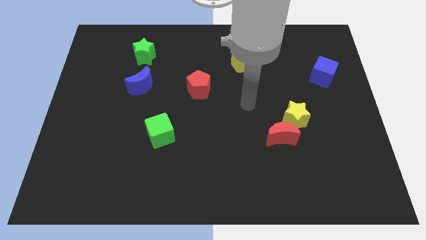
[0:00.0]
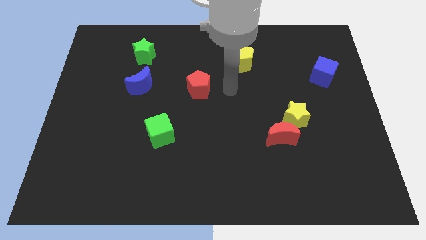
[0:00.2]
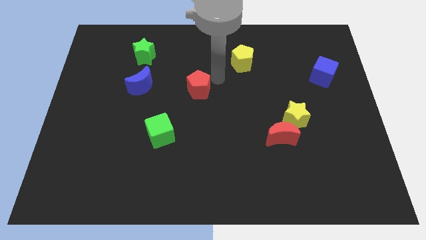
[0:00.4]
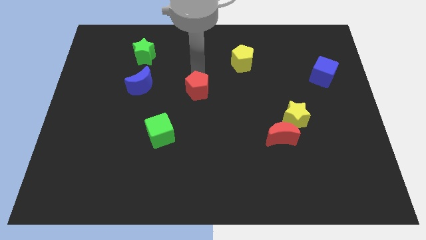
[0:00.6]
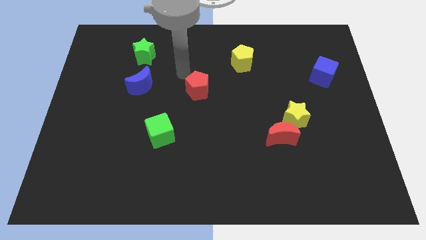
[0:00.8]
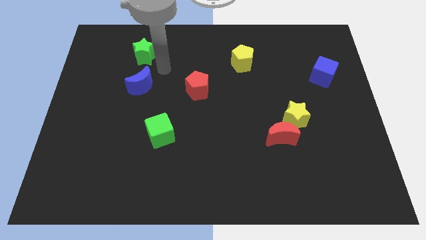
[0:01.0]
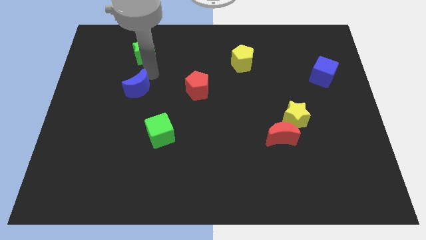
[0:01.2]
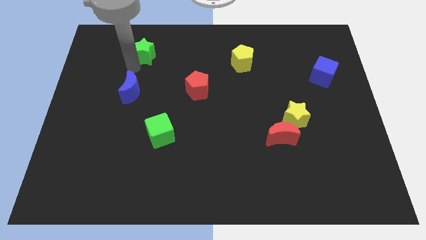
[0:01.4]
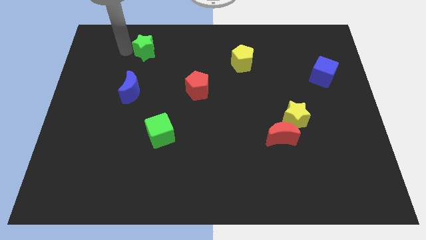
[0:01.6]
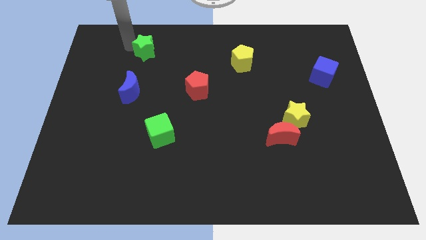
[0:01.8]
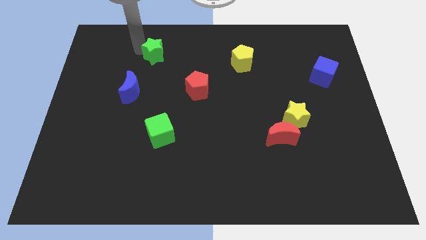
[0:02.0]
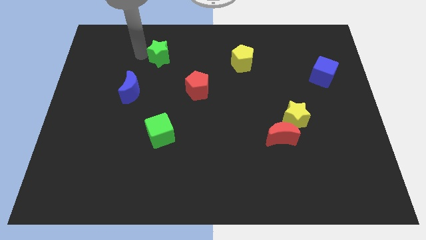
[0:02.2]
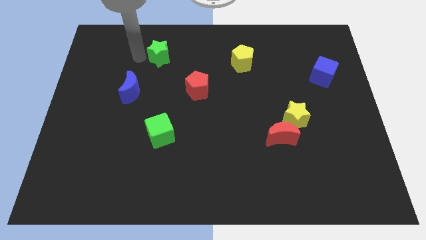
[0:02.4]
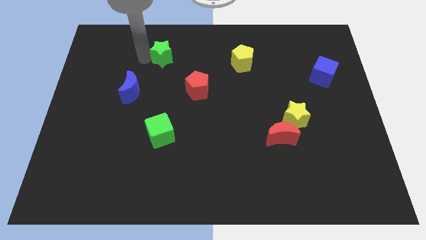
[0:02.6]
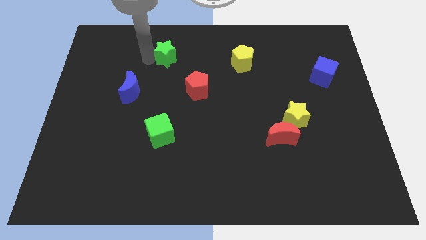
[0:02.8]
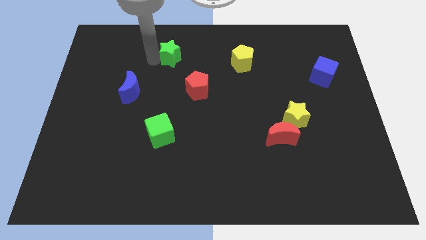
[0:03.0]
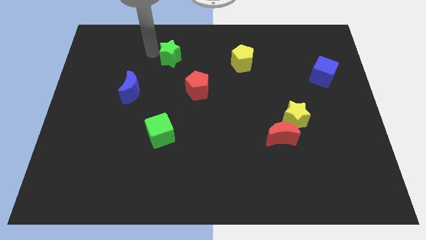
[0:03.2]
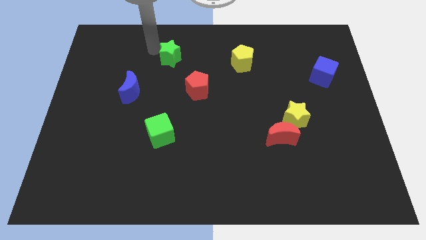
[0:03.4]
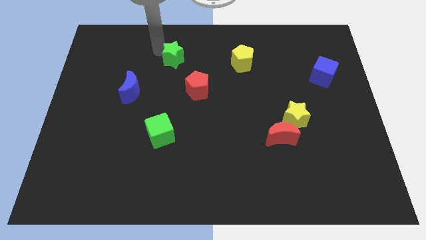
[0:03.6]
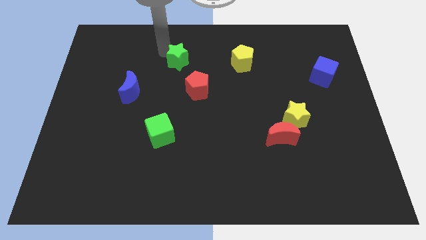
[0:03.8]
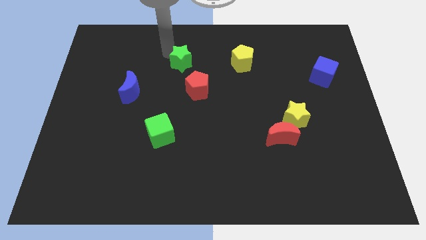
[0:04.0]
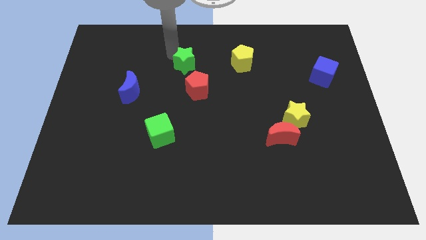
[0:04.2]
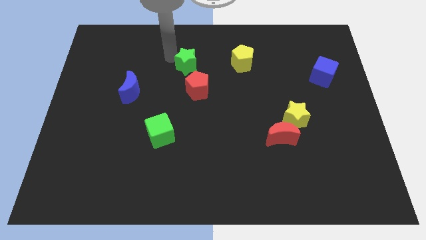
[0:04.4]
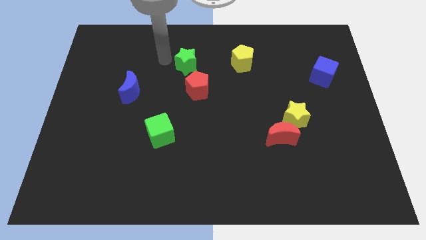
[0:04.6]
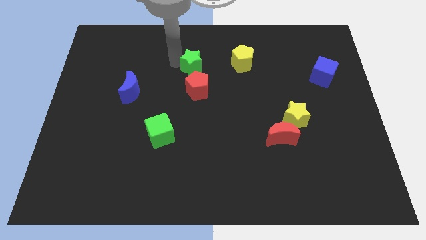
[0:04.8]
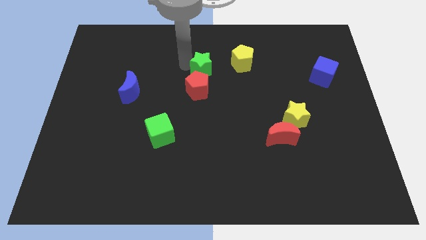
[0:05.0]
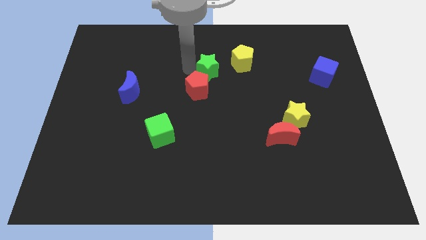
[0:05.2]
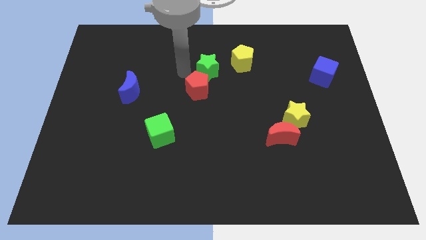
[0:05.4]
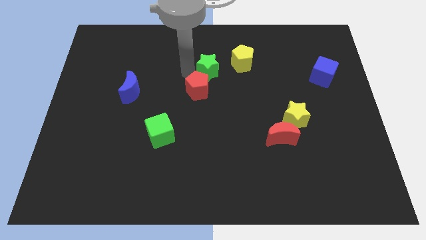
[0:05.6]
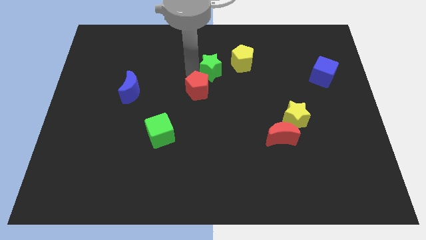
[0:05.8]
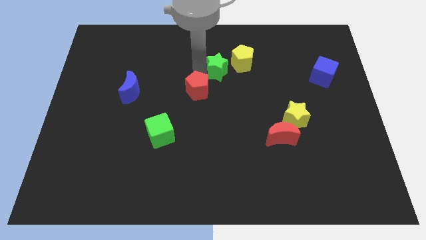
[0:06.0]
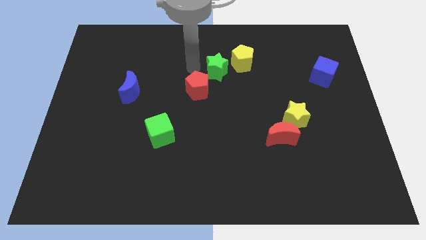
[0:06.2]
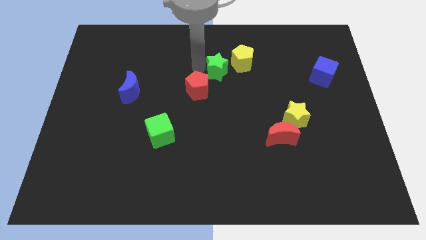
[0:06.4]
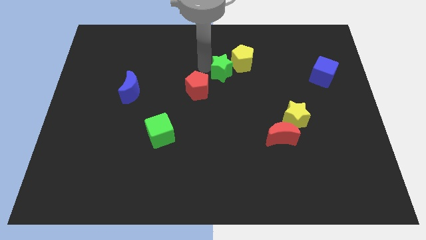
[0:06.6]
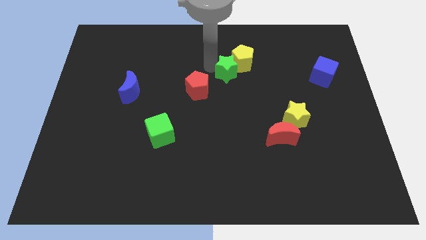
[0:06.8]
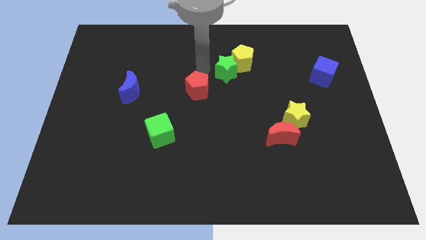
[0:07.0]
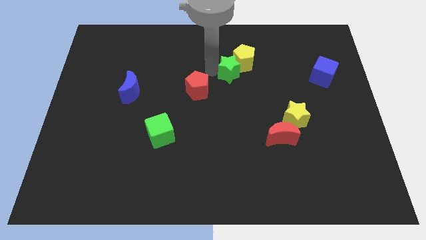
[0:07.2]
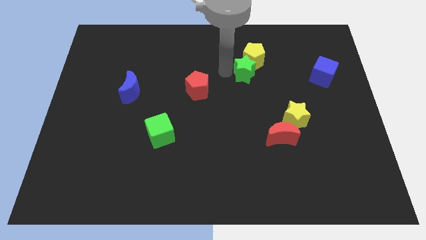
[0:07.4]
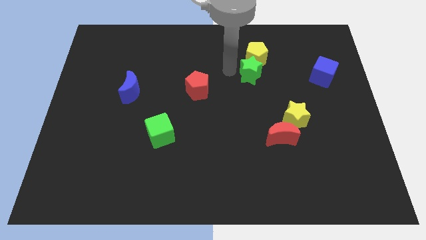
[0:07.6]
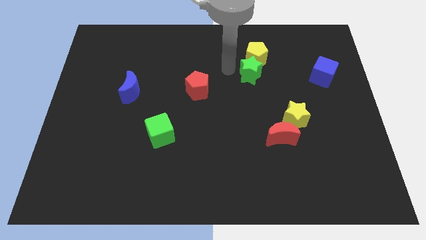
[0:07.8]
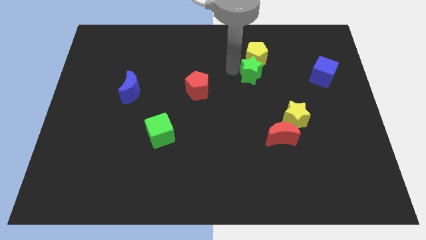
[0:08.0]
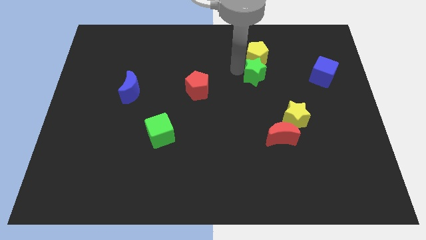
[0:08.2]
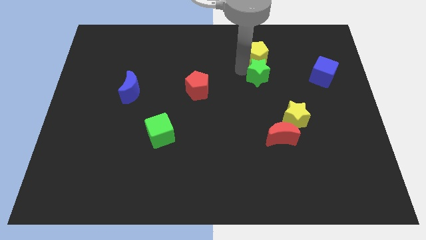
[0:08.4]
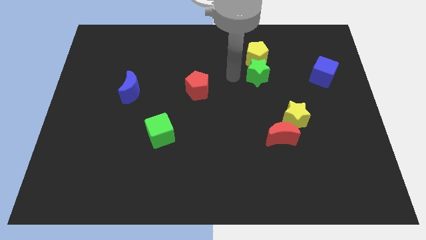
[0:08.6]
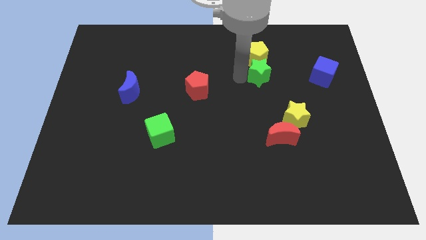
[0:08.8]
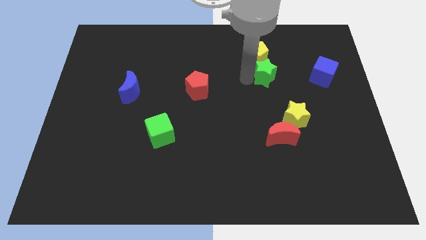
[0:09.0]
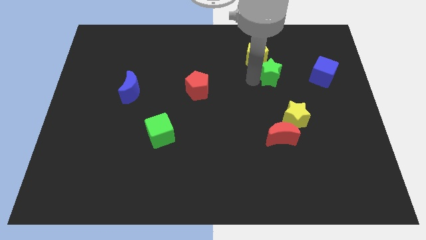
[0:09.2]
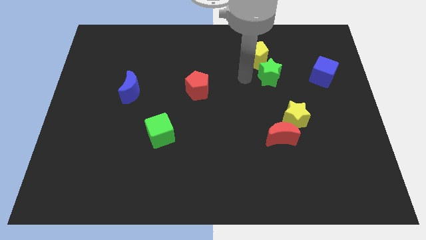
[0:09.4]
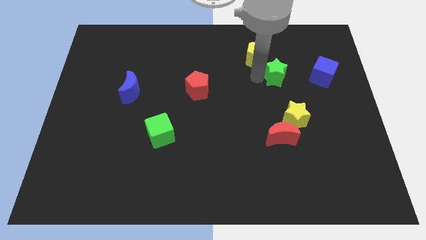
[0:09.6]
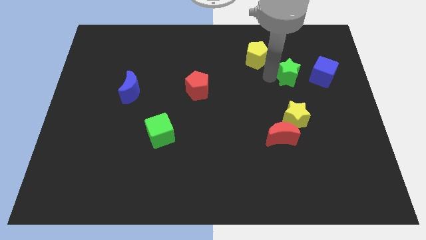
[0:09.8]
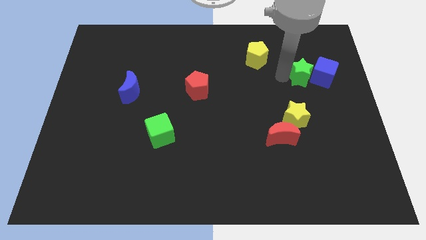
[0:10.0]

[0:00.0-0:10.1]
move the green star next to the blue cube

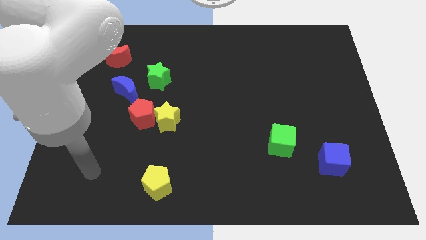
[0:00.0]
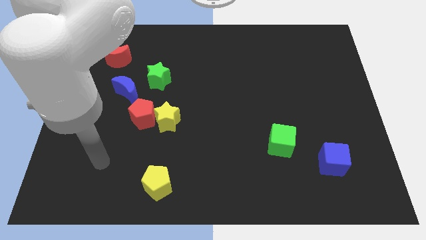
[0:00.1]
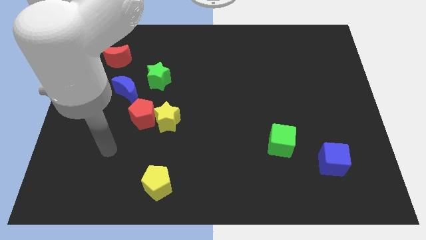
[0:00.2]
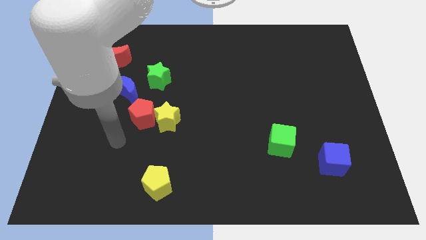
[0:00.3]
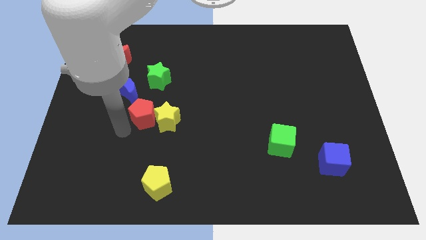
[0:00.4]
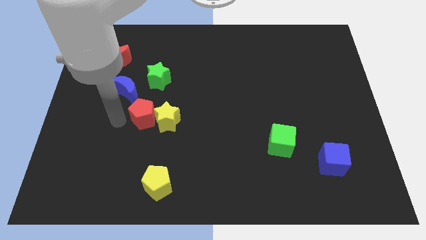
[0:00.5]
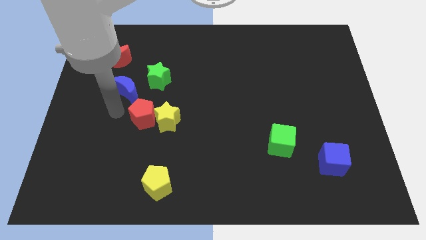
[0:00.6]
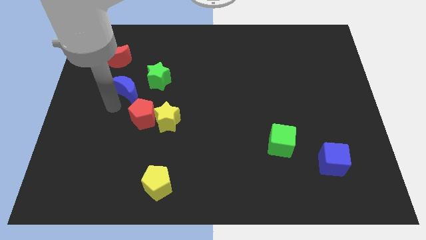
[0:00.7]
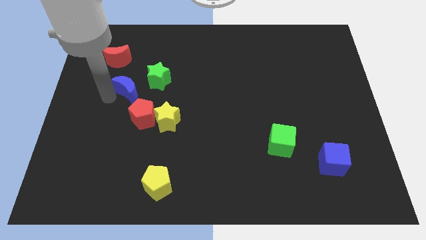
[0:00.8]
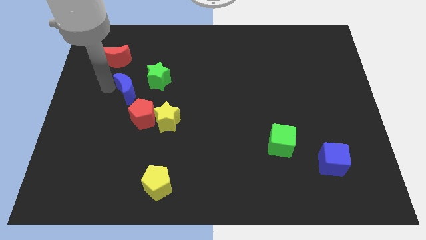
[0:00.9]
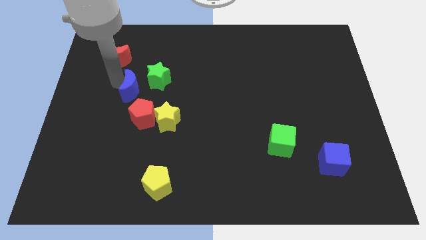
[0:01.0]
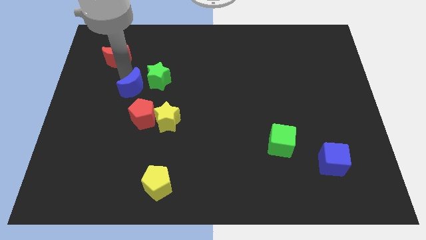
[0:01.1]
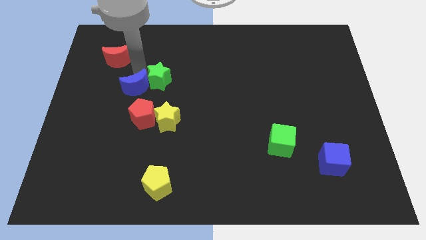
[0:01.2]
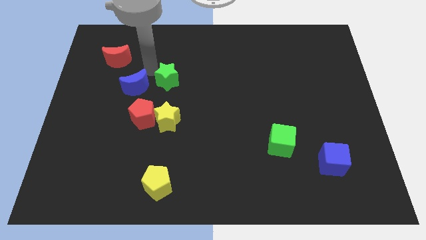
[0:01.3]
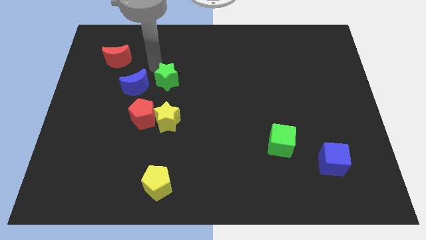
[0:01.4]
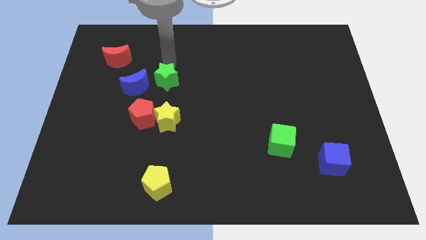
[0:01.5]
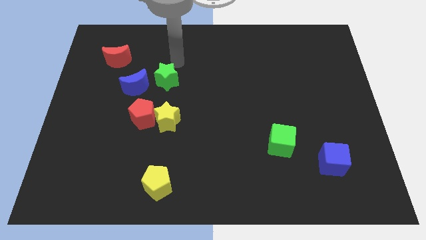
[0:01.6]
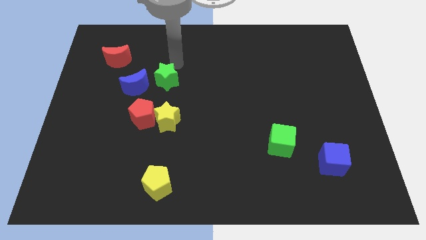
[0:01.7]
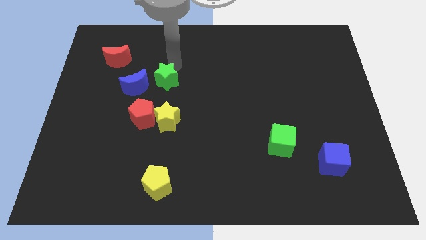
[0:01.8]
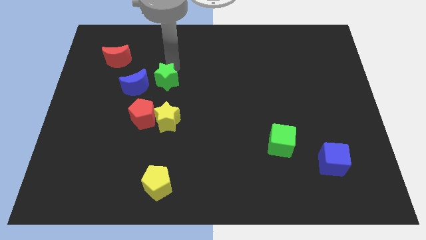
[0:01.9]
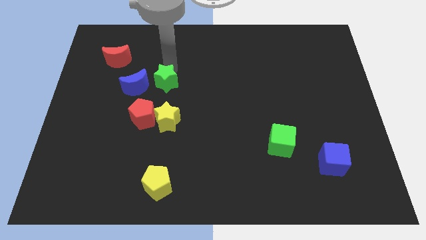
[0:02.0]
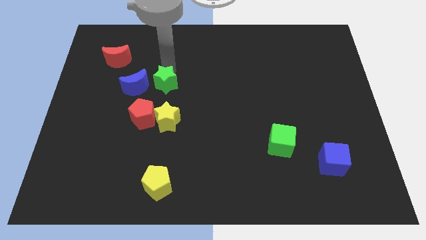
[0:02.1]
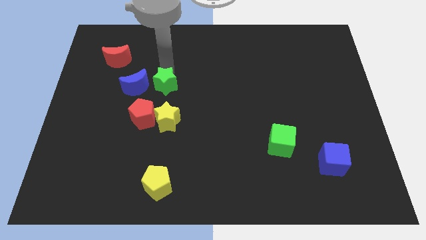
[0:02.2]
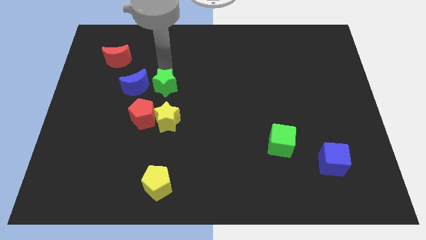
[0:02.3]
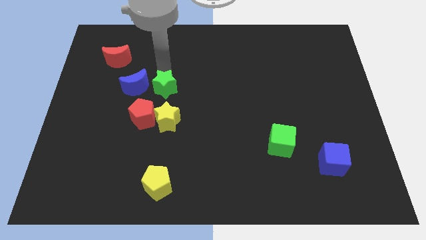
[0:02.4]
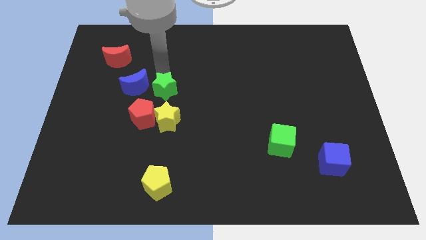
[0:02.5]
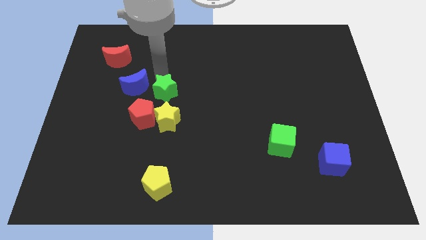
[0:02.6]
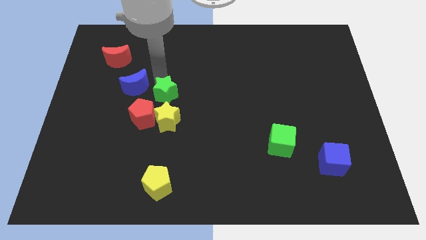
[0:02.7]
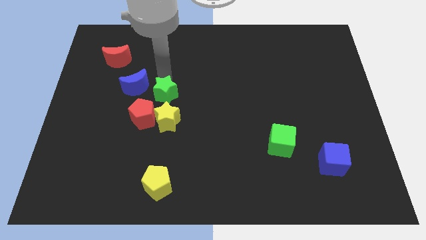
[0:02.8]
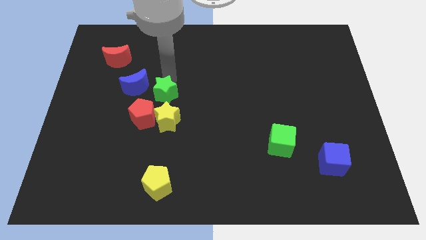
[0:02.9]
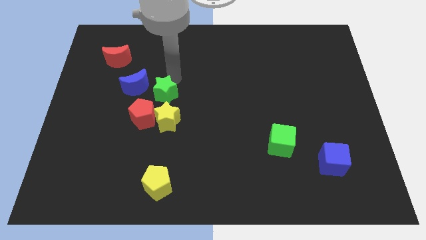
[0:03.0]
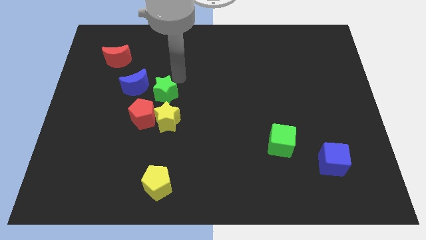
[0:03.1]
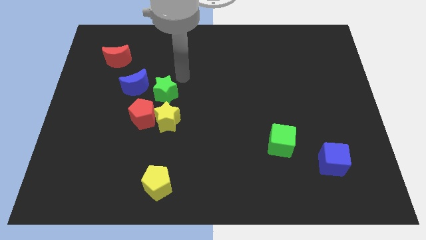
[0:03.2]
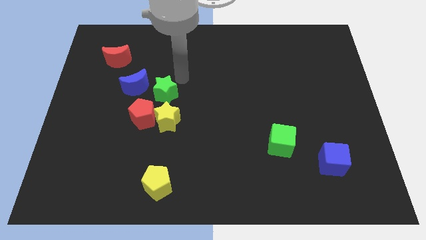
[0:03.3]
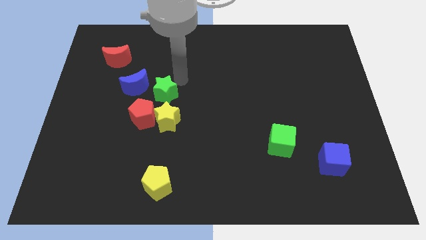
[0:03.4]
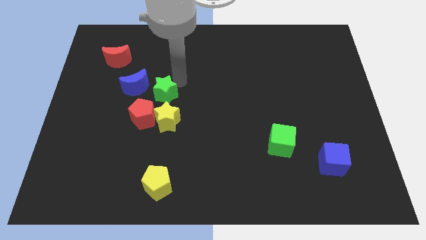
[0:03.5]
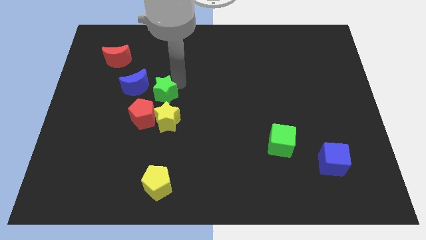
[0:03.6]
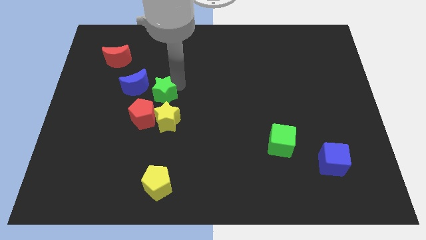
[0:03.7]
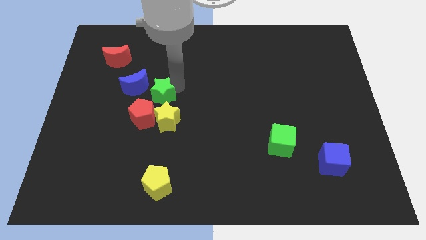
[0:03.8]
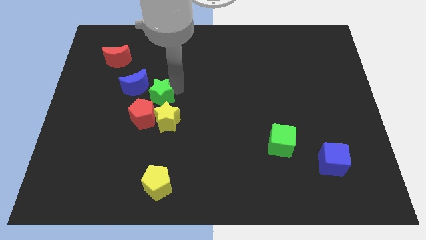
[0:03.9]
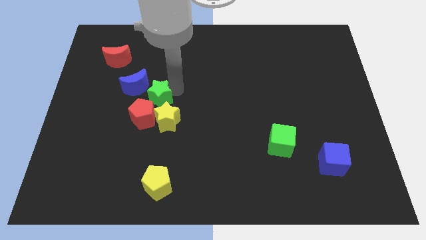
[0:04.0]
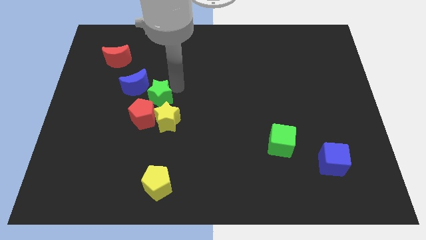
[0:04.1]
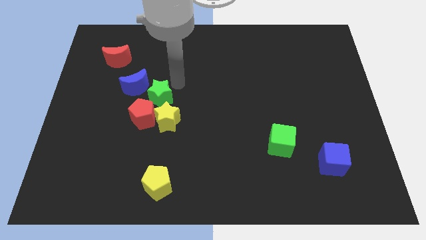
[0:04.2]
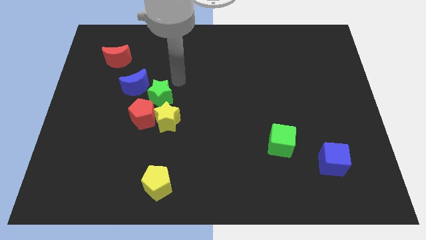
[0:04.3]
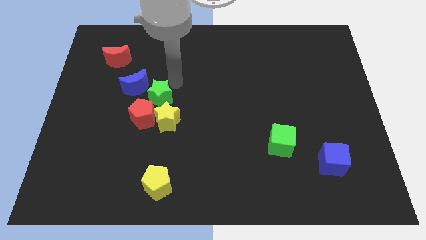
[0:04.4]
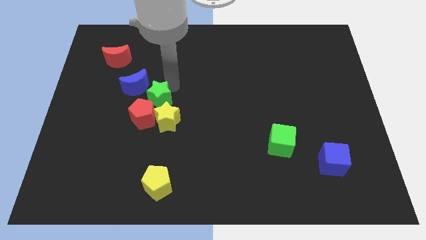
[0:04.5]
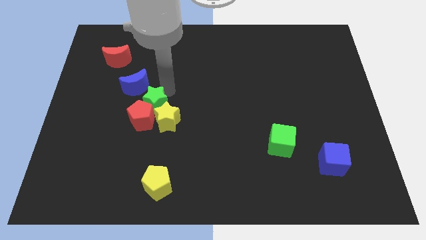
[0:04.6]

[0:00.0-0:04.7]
move the green star close to the red pentagon
